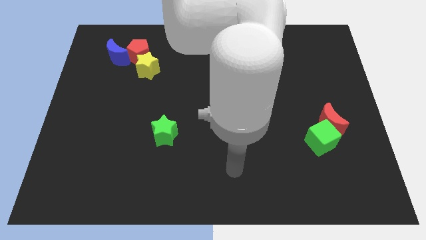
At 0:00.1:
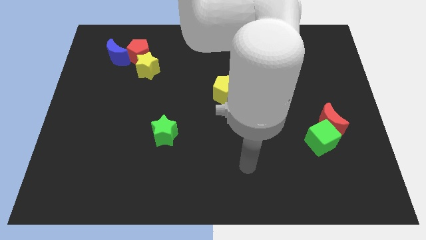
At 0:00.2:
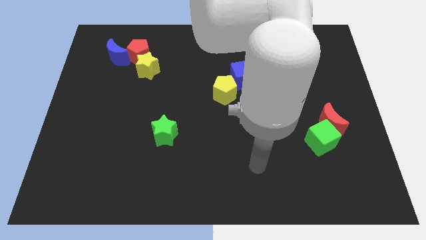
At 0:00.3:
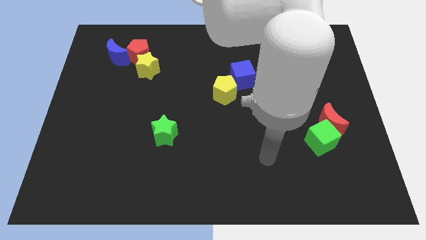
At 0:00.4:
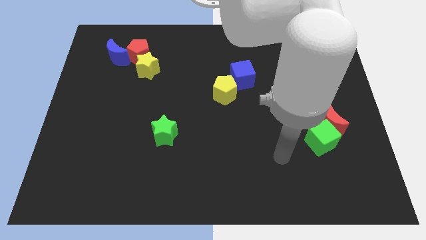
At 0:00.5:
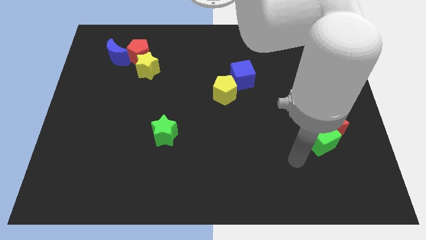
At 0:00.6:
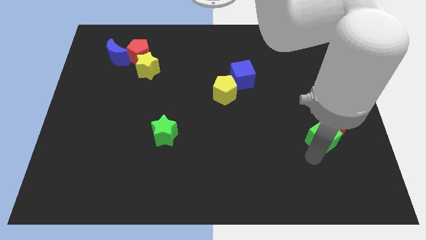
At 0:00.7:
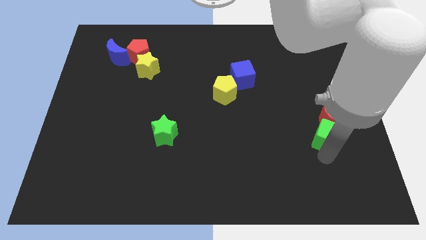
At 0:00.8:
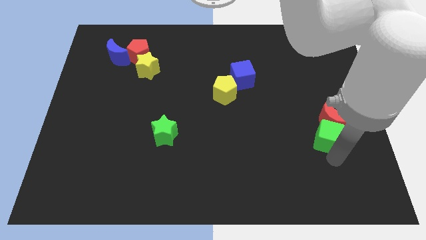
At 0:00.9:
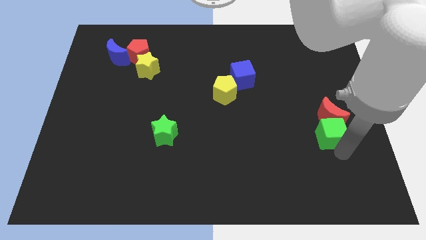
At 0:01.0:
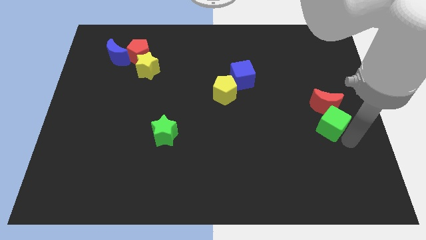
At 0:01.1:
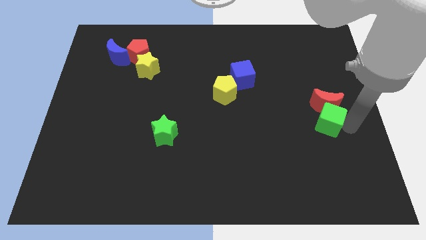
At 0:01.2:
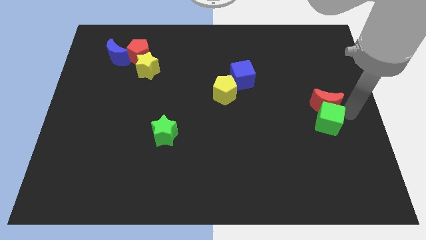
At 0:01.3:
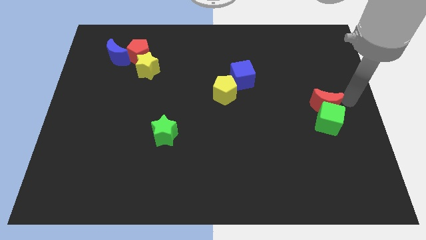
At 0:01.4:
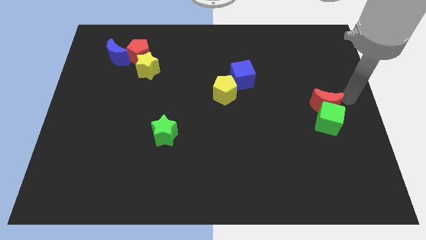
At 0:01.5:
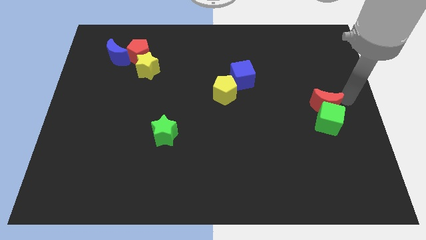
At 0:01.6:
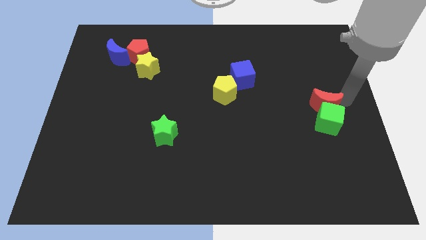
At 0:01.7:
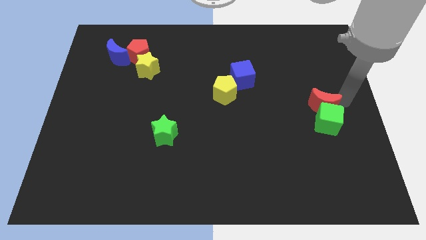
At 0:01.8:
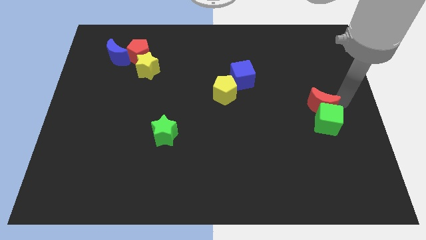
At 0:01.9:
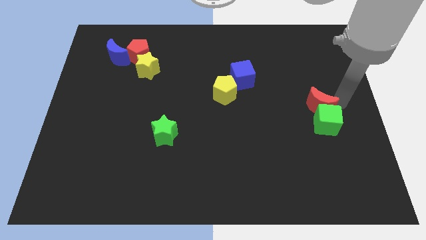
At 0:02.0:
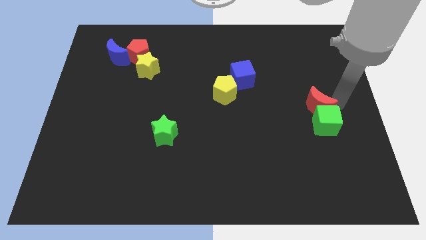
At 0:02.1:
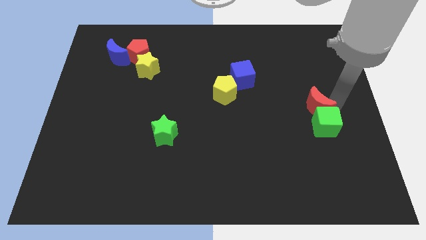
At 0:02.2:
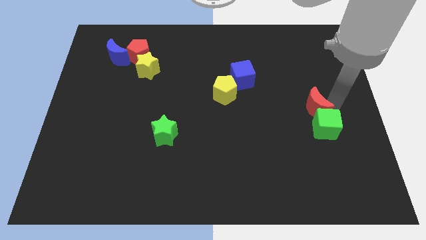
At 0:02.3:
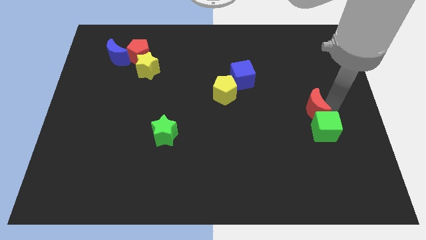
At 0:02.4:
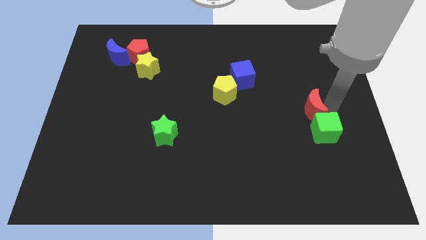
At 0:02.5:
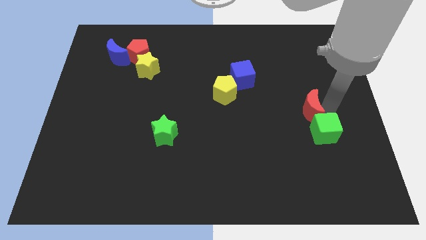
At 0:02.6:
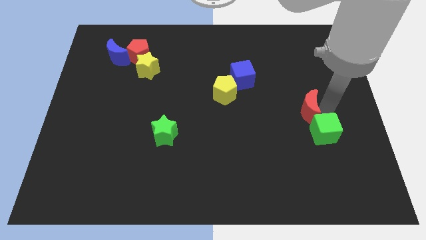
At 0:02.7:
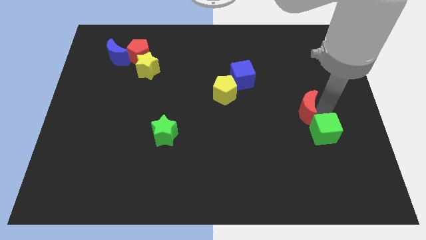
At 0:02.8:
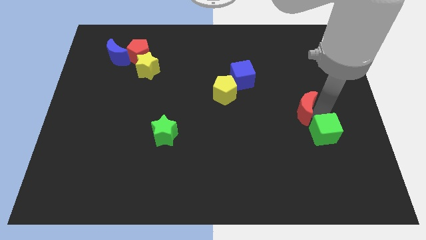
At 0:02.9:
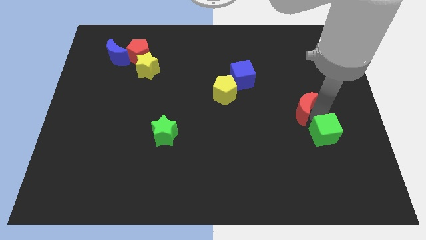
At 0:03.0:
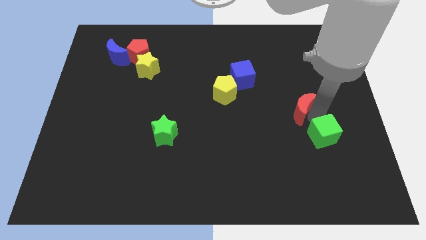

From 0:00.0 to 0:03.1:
move the red moon somewhat diagonally up and to the left

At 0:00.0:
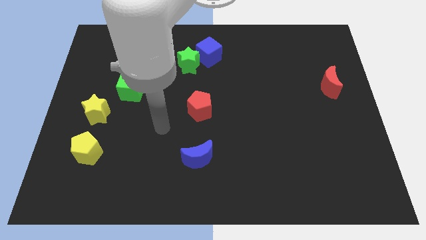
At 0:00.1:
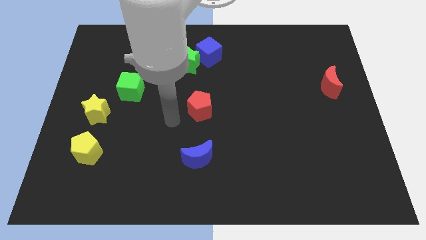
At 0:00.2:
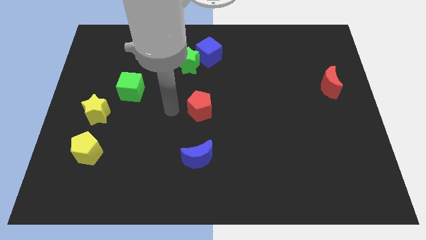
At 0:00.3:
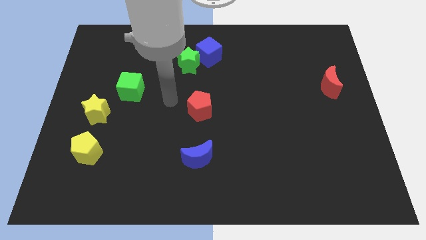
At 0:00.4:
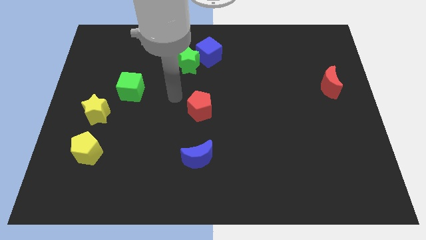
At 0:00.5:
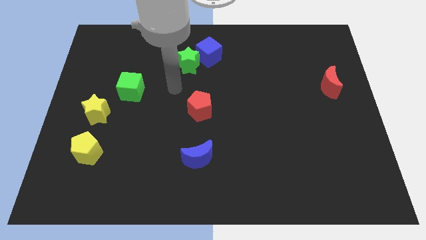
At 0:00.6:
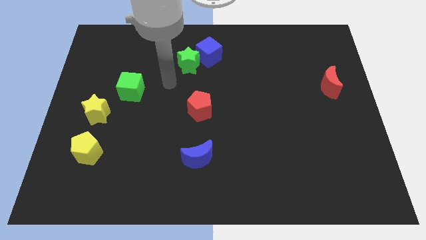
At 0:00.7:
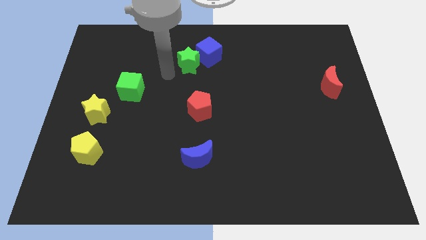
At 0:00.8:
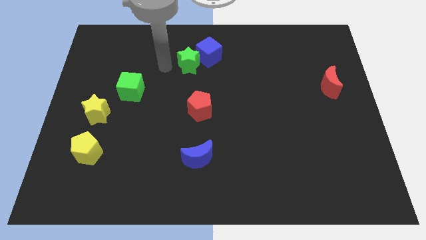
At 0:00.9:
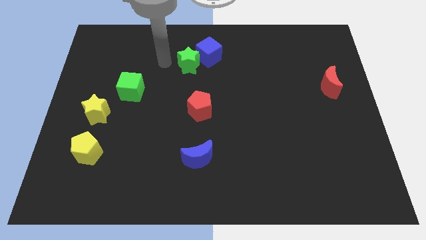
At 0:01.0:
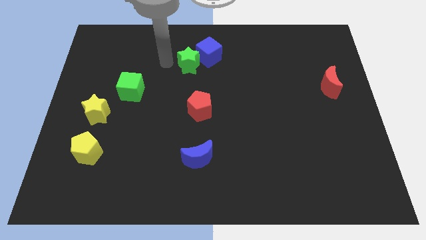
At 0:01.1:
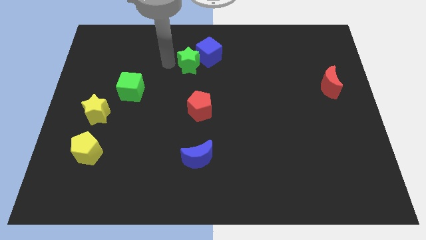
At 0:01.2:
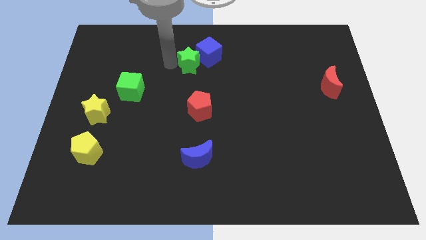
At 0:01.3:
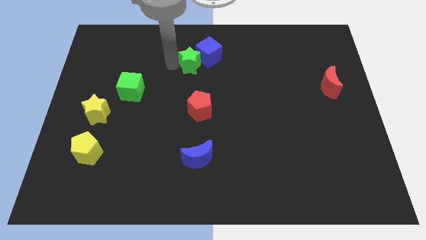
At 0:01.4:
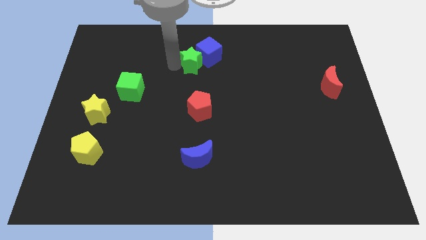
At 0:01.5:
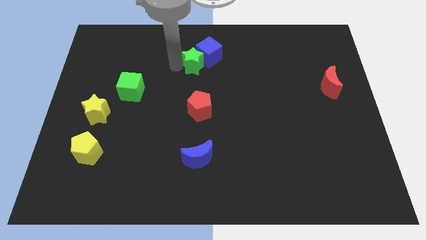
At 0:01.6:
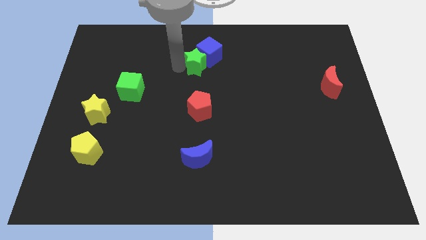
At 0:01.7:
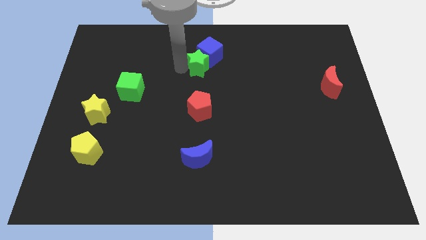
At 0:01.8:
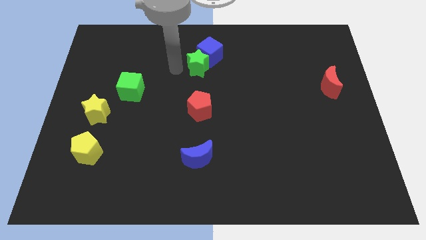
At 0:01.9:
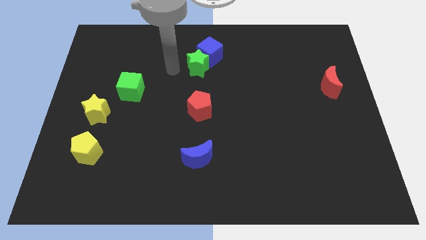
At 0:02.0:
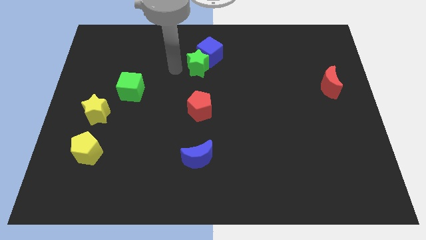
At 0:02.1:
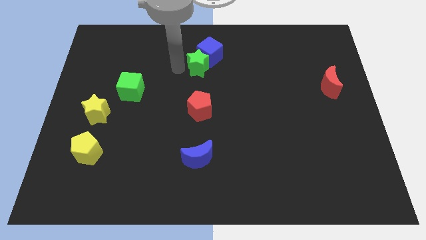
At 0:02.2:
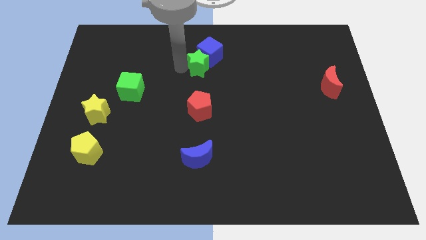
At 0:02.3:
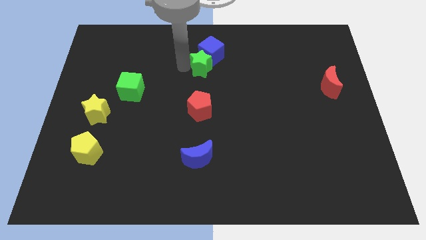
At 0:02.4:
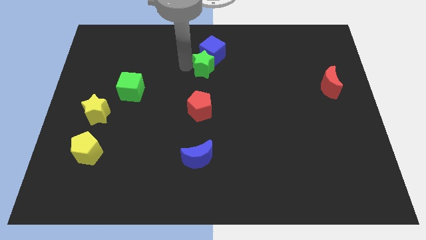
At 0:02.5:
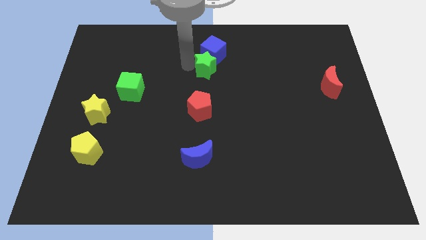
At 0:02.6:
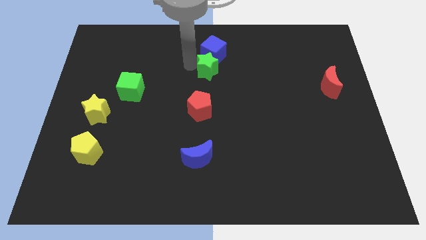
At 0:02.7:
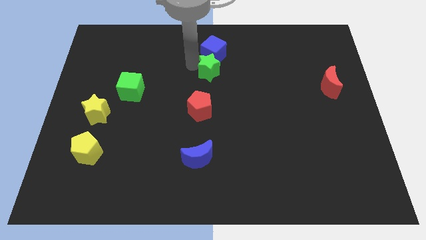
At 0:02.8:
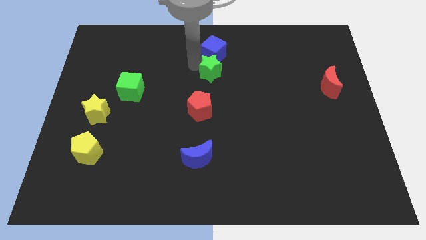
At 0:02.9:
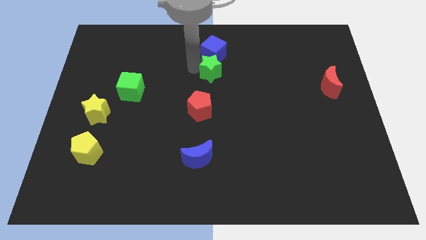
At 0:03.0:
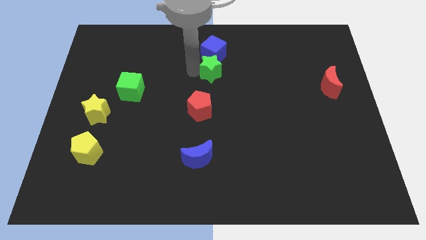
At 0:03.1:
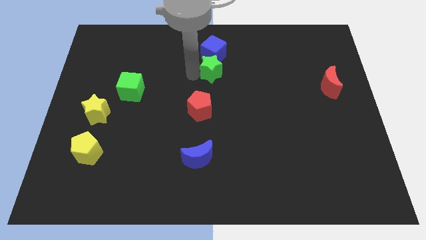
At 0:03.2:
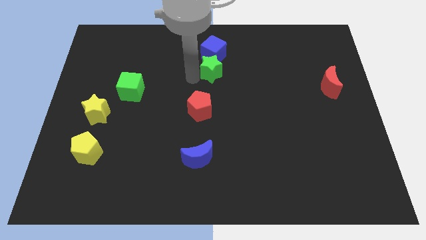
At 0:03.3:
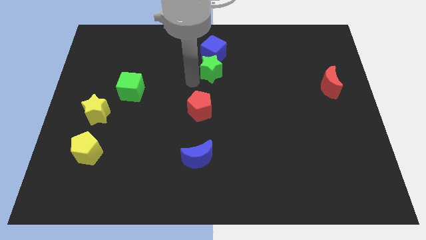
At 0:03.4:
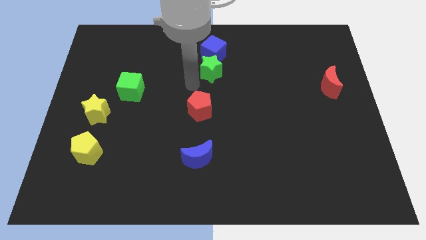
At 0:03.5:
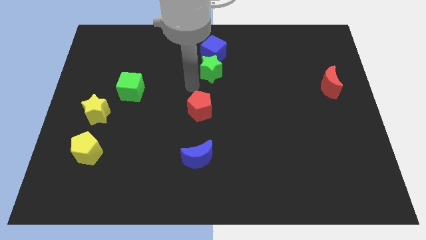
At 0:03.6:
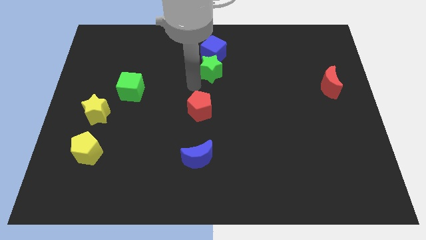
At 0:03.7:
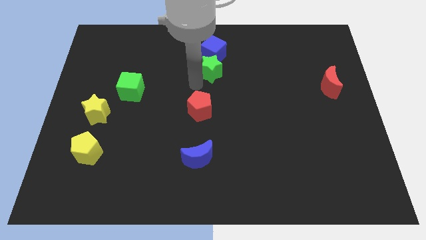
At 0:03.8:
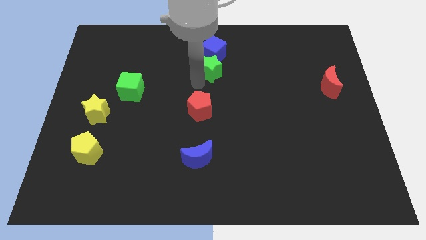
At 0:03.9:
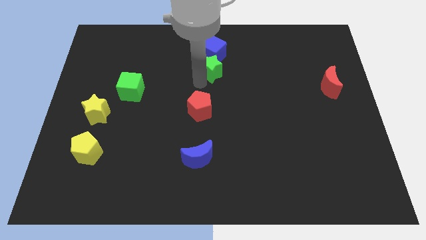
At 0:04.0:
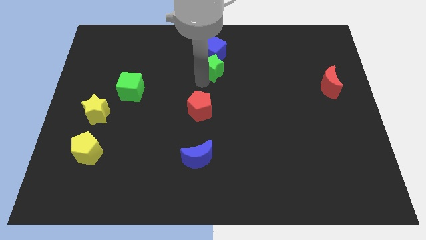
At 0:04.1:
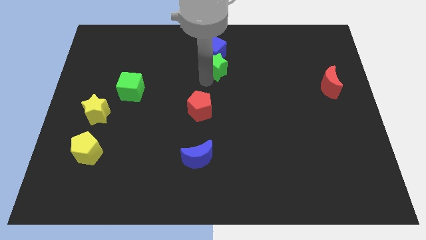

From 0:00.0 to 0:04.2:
slide the green star right a bit

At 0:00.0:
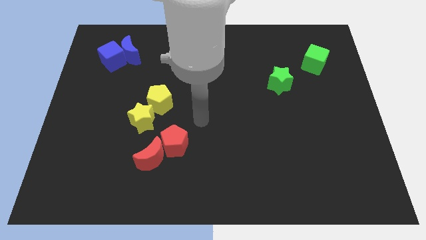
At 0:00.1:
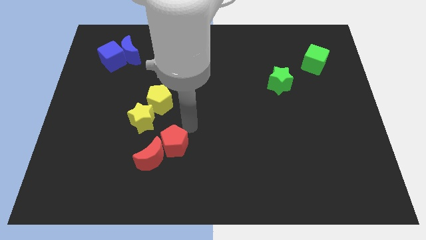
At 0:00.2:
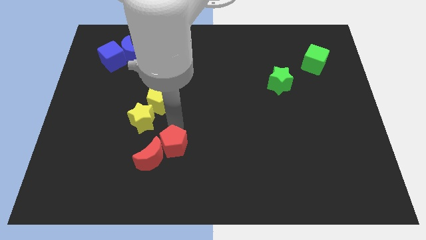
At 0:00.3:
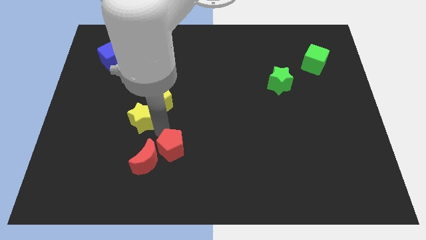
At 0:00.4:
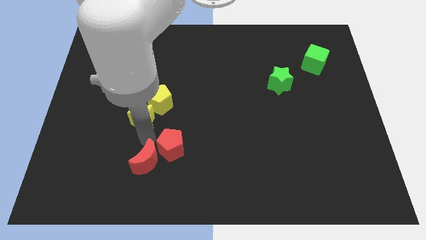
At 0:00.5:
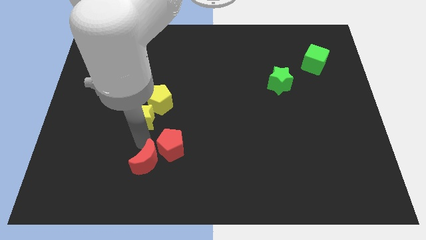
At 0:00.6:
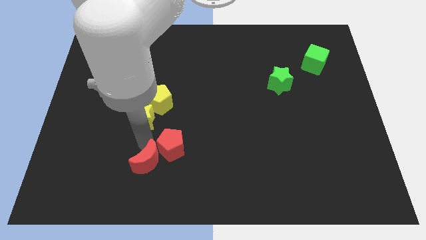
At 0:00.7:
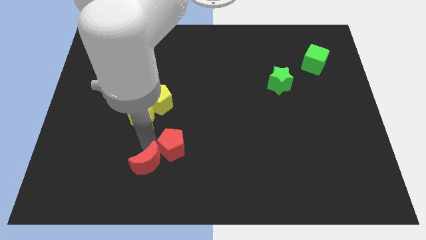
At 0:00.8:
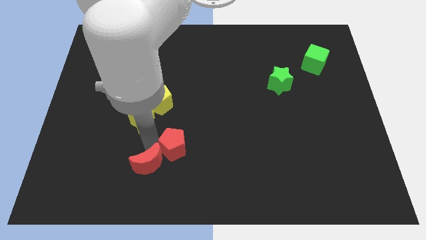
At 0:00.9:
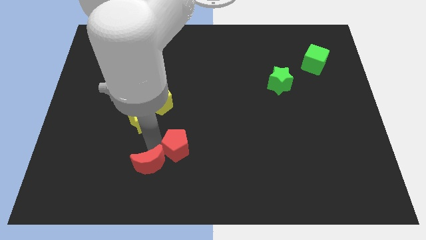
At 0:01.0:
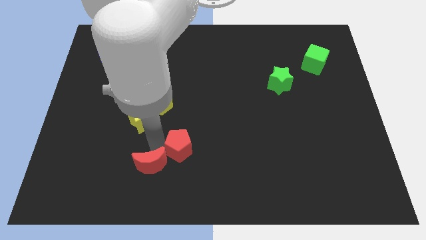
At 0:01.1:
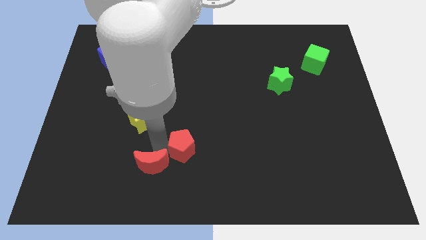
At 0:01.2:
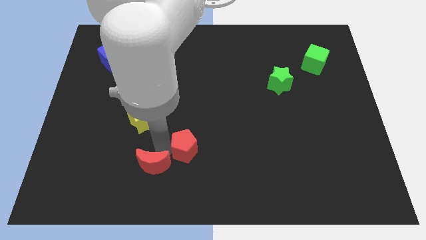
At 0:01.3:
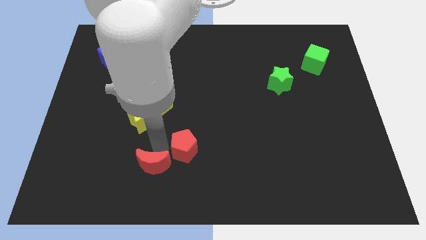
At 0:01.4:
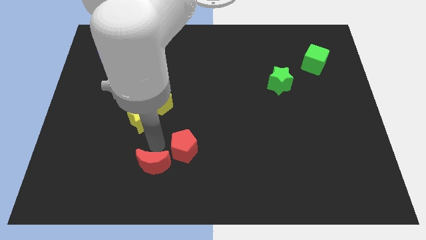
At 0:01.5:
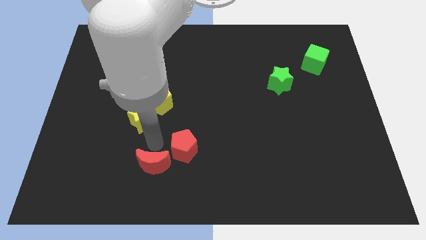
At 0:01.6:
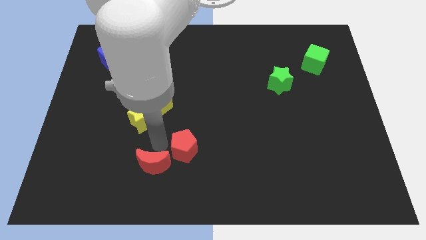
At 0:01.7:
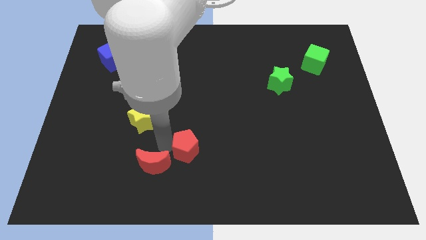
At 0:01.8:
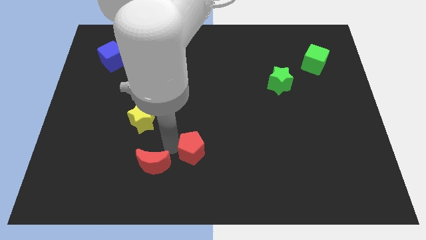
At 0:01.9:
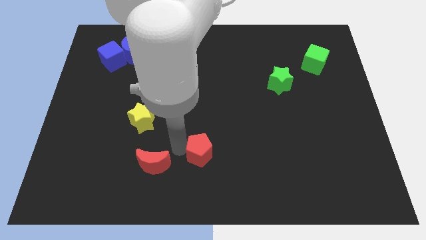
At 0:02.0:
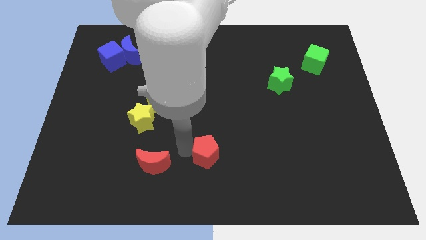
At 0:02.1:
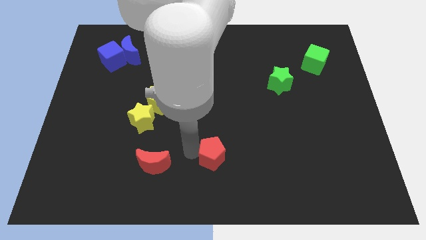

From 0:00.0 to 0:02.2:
push the red pentagon to the right somewhat
